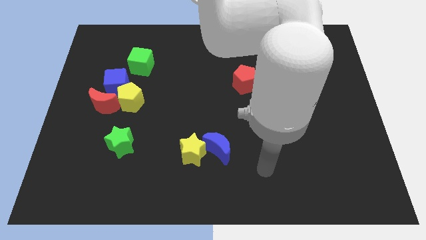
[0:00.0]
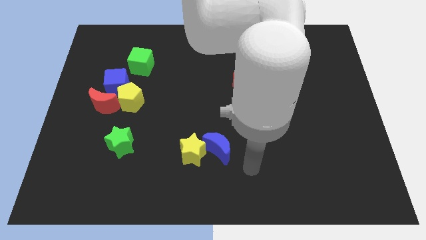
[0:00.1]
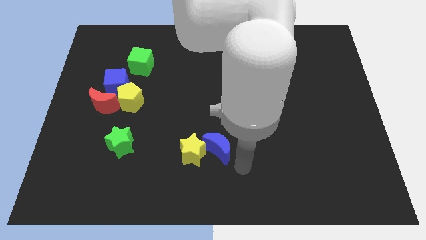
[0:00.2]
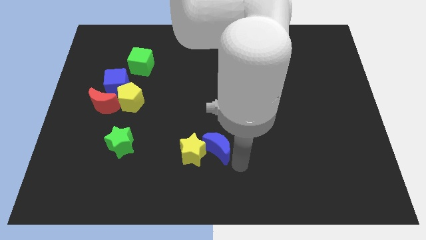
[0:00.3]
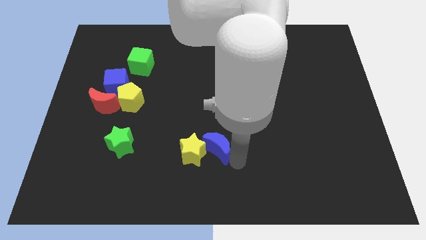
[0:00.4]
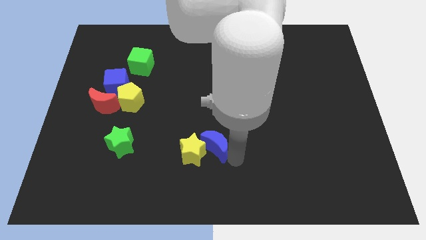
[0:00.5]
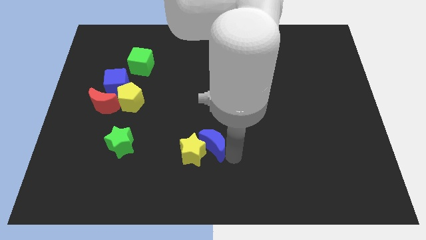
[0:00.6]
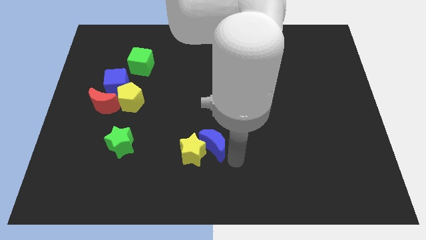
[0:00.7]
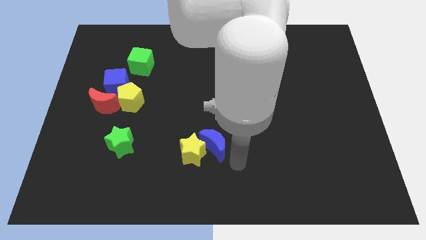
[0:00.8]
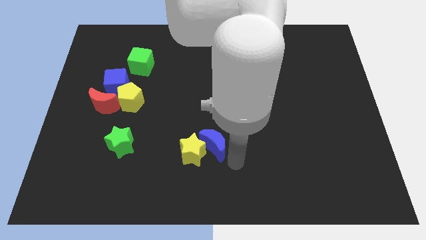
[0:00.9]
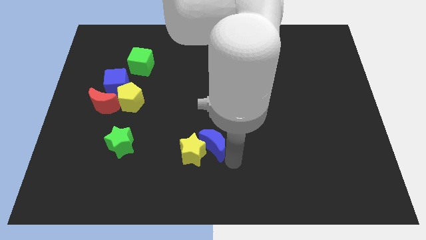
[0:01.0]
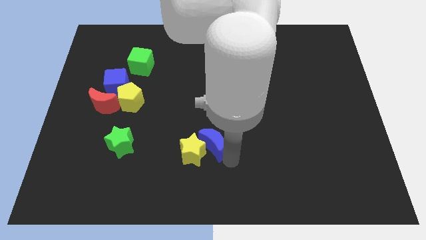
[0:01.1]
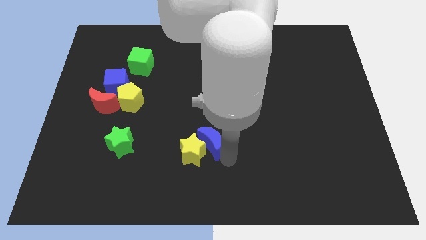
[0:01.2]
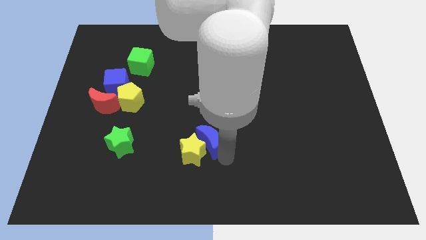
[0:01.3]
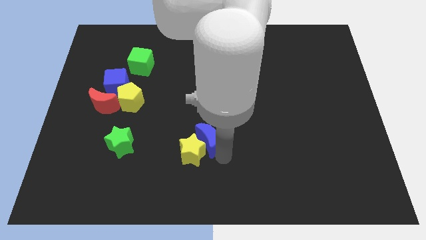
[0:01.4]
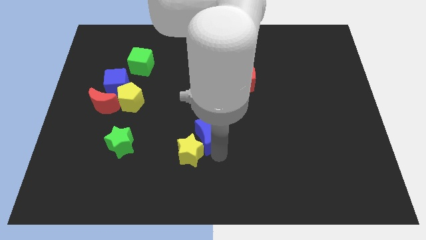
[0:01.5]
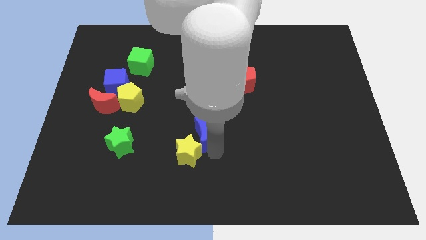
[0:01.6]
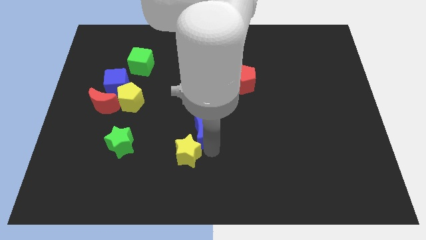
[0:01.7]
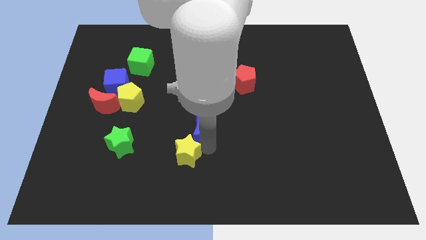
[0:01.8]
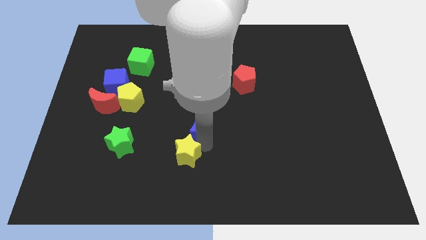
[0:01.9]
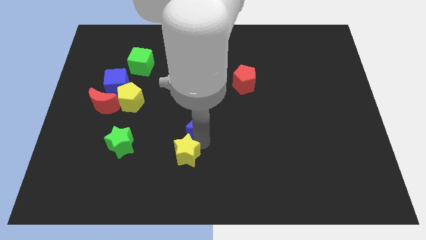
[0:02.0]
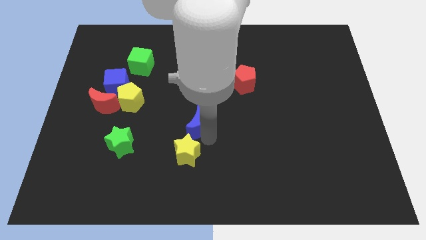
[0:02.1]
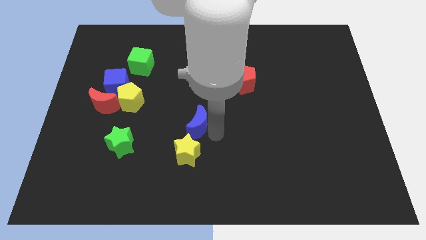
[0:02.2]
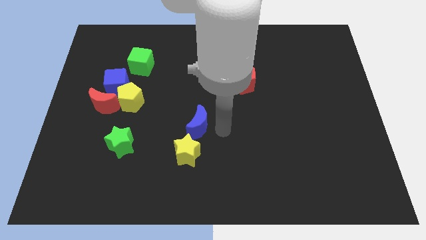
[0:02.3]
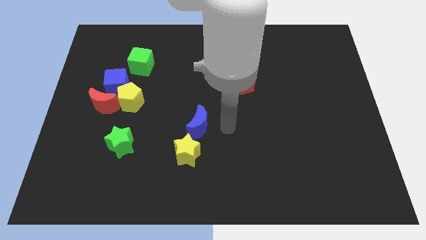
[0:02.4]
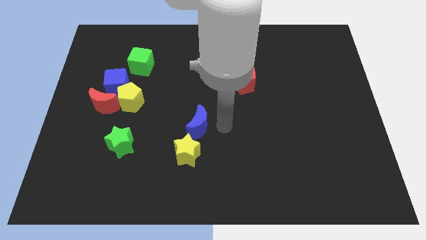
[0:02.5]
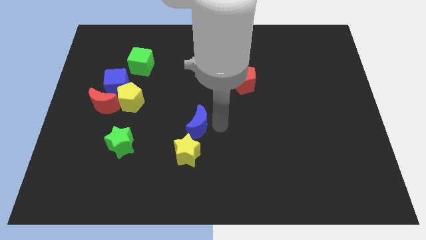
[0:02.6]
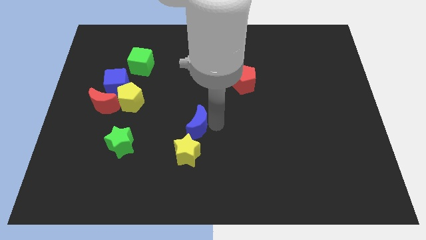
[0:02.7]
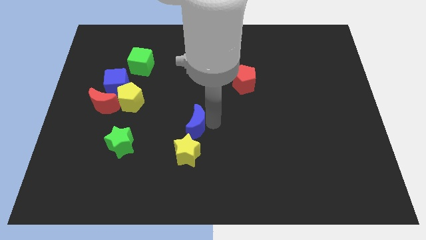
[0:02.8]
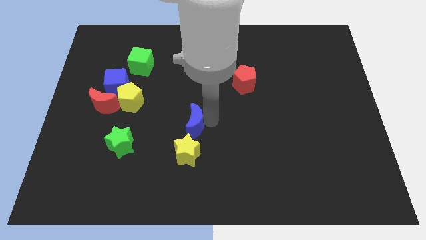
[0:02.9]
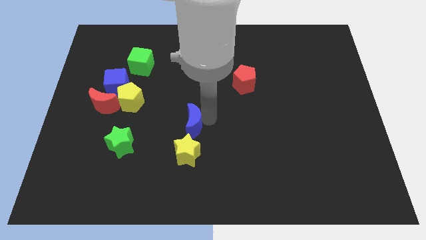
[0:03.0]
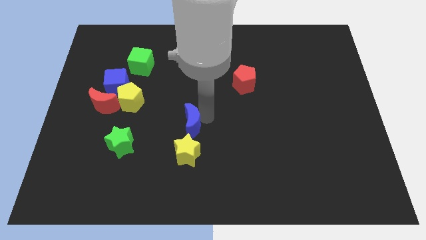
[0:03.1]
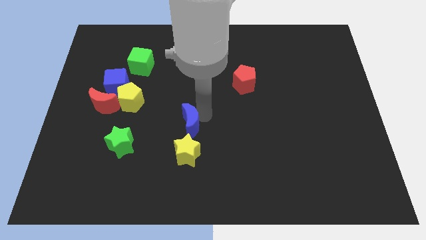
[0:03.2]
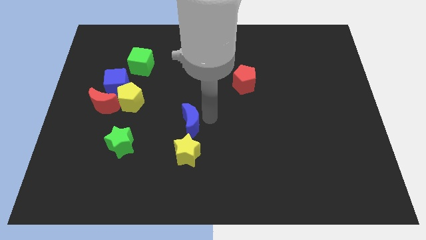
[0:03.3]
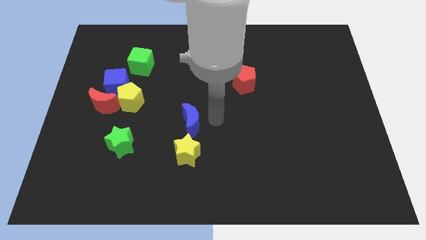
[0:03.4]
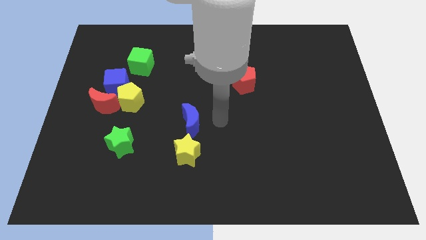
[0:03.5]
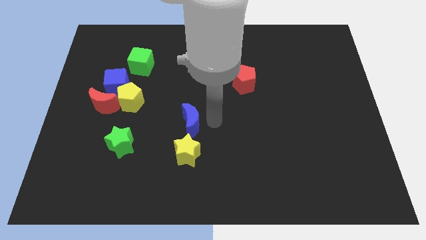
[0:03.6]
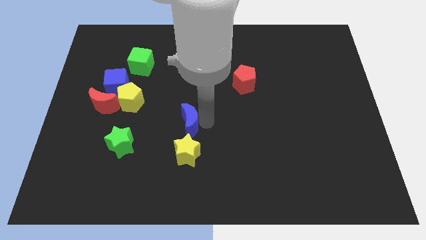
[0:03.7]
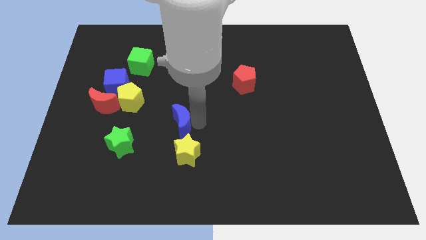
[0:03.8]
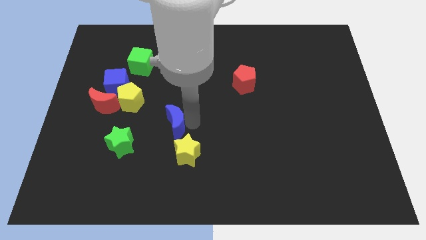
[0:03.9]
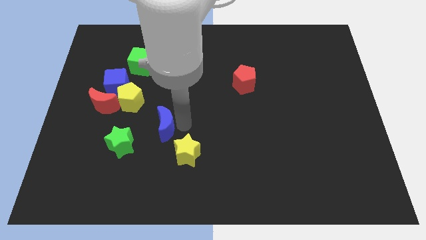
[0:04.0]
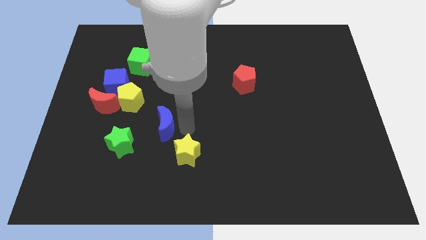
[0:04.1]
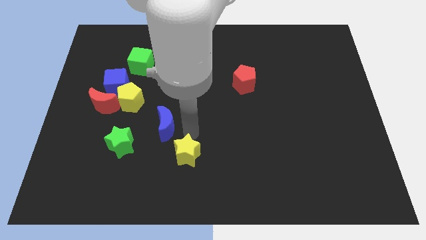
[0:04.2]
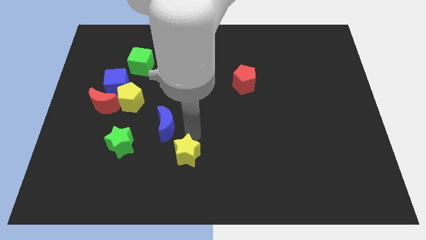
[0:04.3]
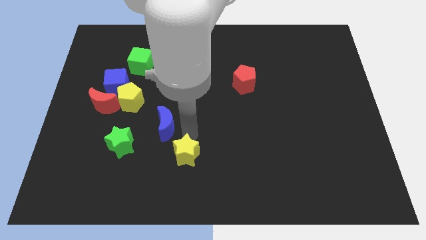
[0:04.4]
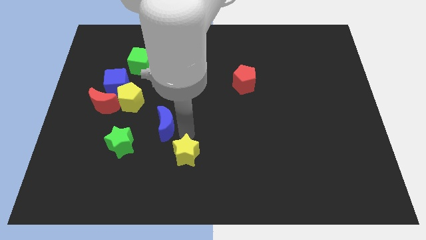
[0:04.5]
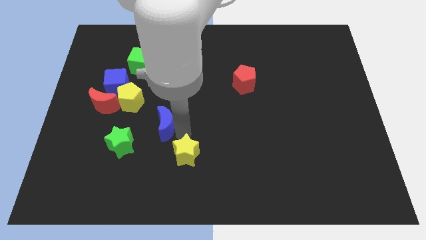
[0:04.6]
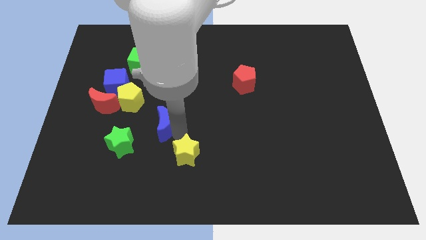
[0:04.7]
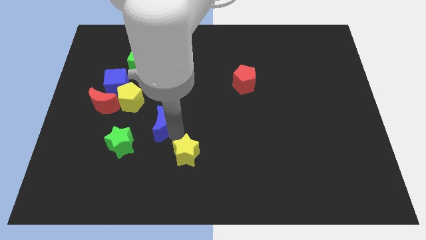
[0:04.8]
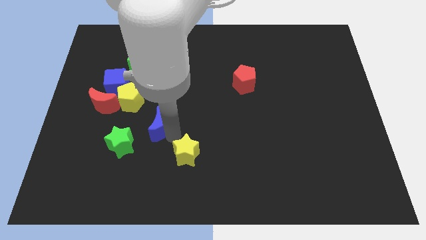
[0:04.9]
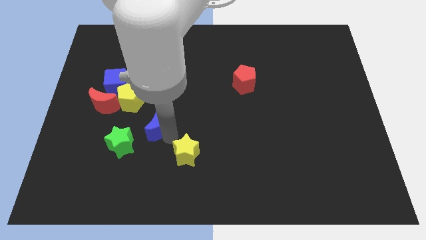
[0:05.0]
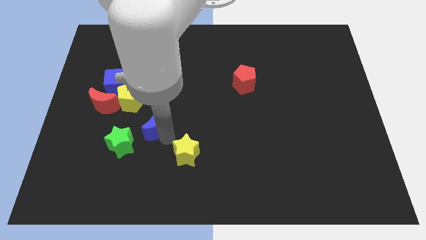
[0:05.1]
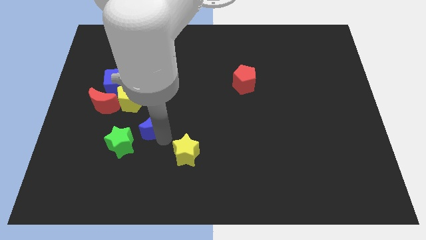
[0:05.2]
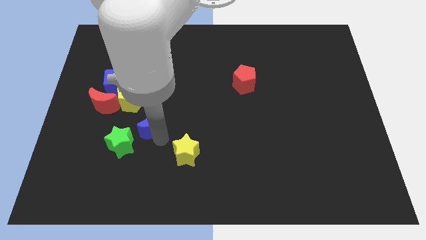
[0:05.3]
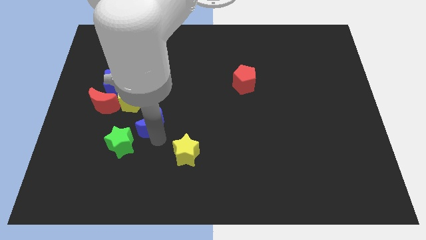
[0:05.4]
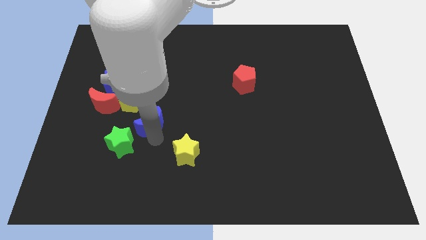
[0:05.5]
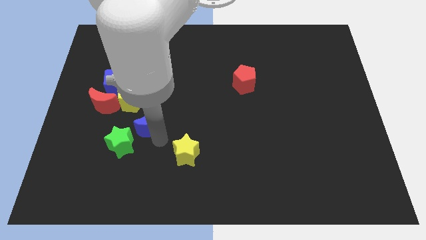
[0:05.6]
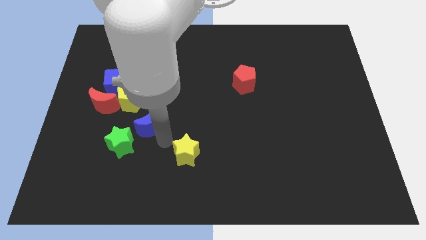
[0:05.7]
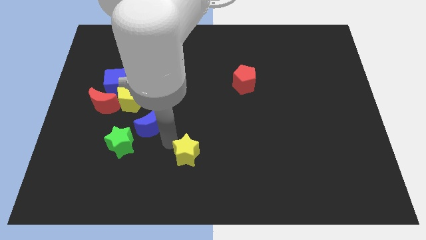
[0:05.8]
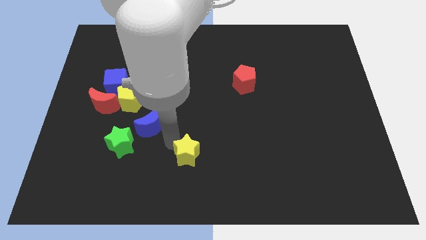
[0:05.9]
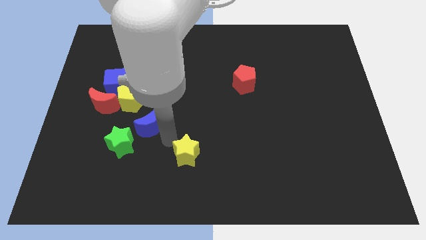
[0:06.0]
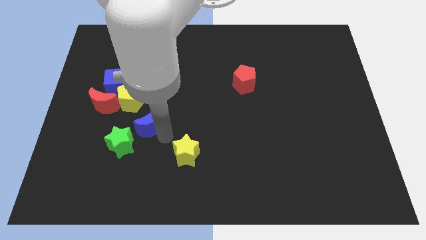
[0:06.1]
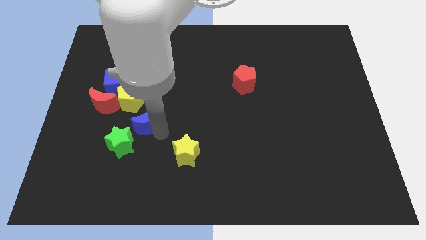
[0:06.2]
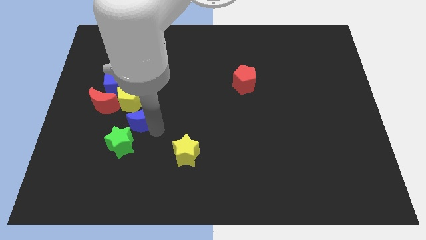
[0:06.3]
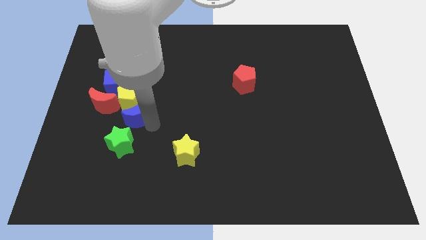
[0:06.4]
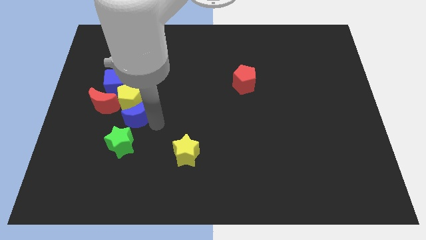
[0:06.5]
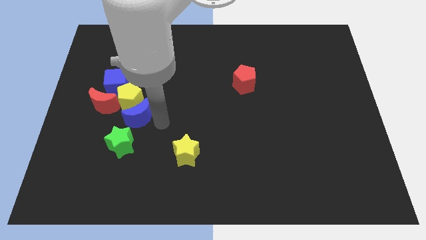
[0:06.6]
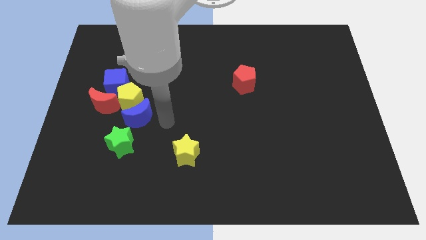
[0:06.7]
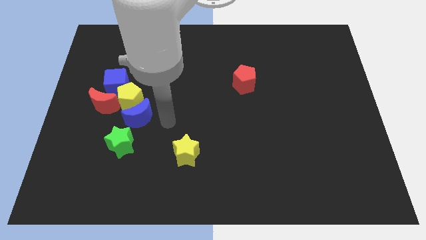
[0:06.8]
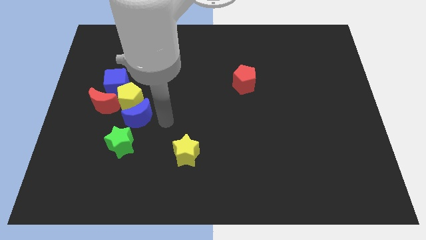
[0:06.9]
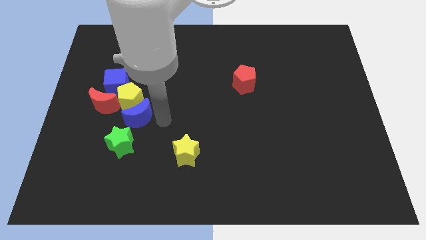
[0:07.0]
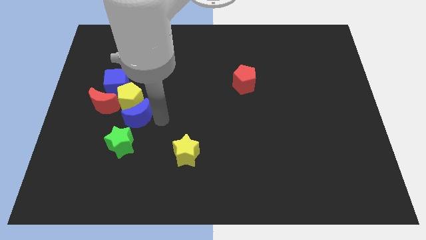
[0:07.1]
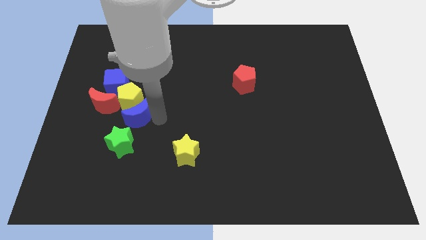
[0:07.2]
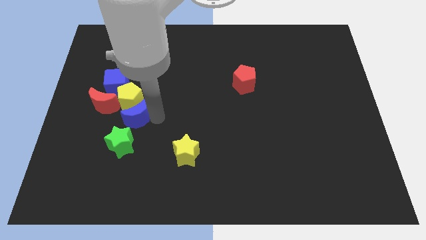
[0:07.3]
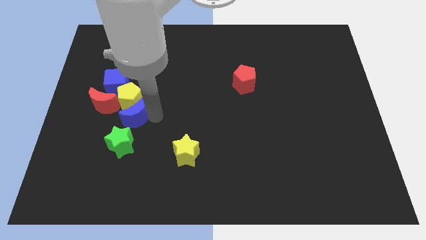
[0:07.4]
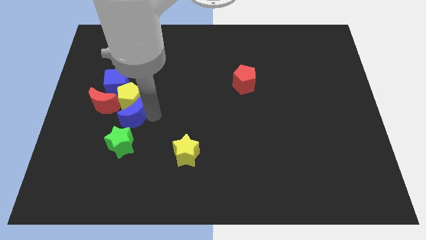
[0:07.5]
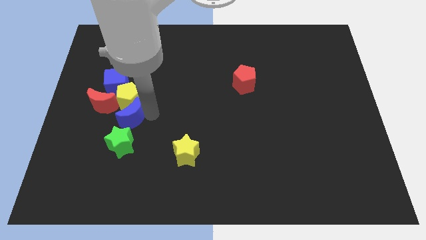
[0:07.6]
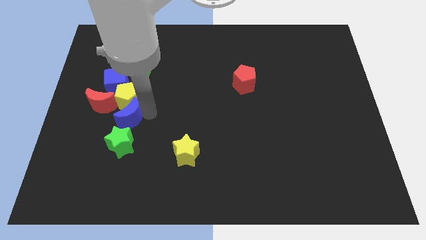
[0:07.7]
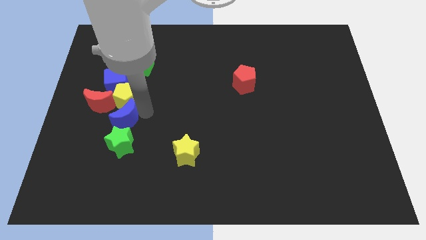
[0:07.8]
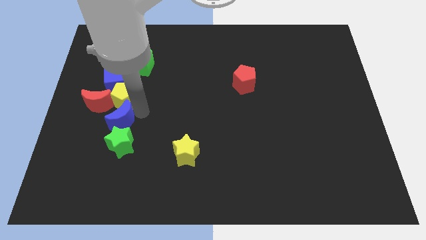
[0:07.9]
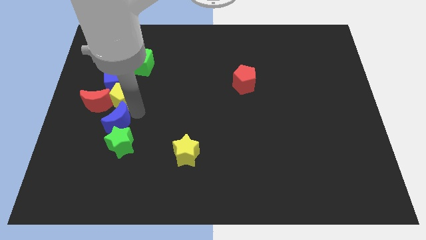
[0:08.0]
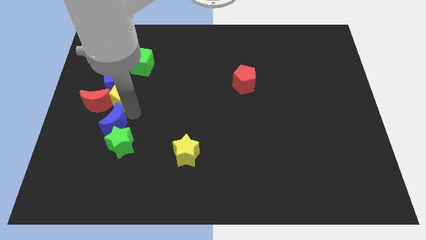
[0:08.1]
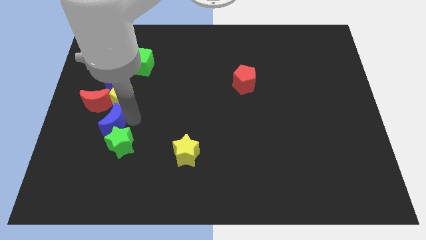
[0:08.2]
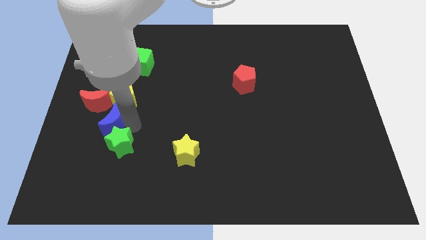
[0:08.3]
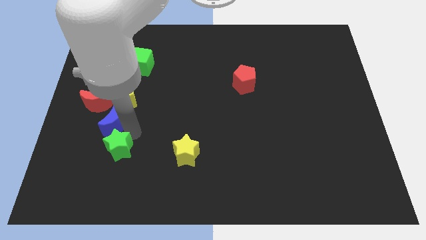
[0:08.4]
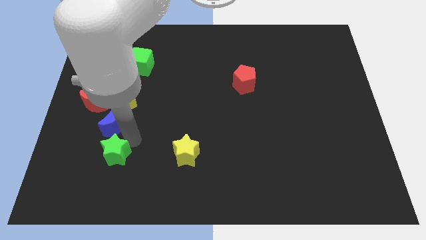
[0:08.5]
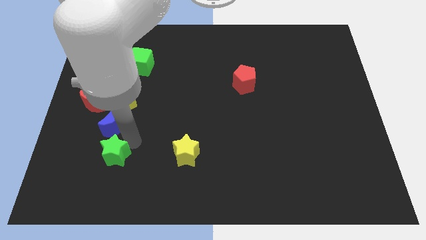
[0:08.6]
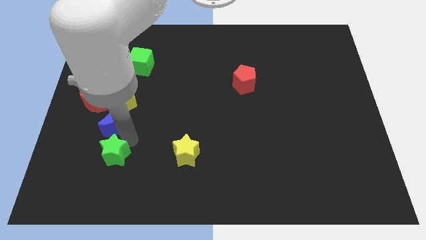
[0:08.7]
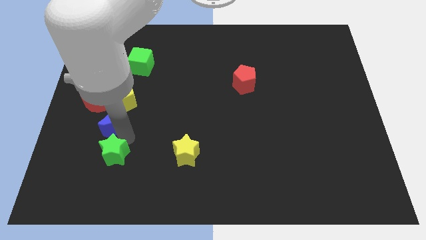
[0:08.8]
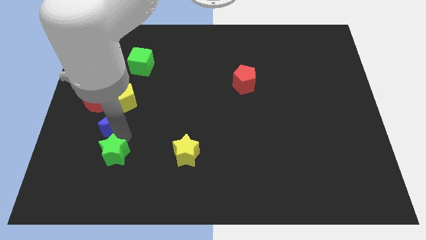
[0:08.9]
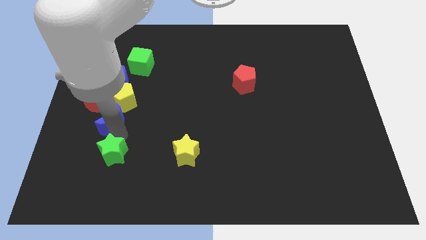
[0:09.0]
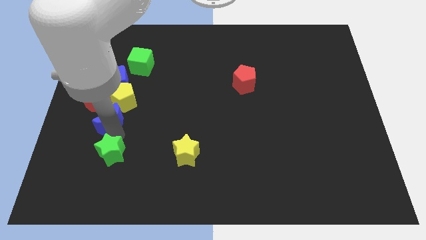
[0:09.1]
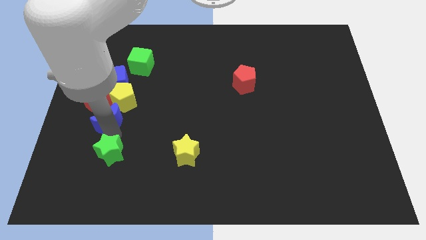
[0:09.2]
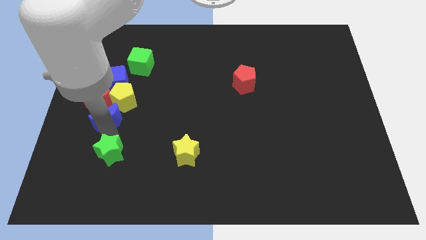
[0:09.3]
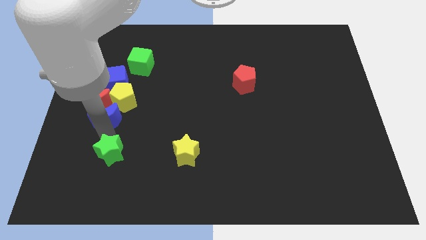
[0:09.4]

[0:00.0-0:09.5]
put the blue moon towards the red moon
